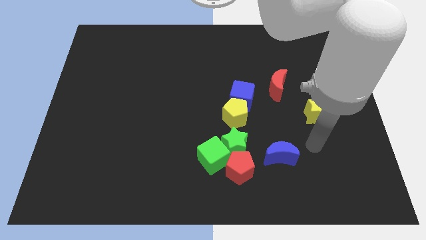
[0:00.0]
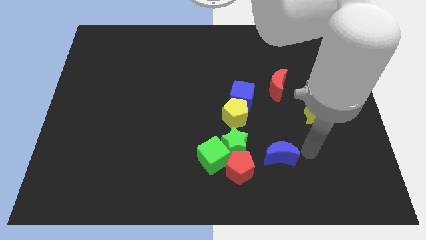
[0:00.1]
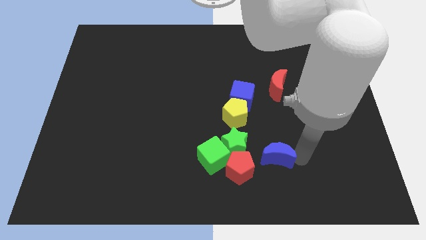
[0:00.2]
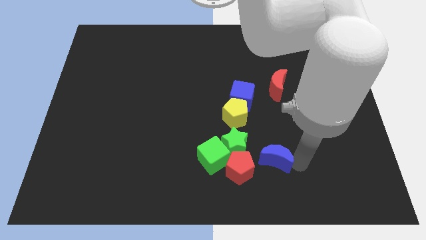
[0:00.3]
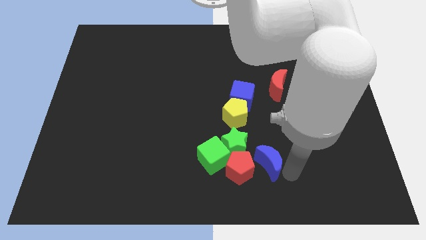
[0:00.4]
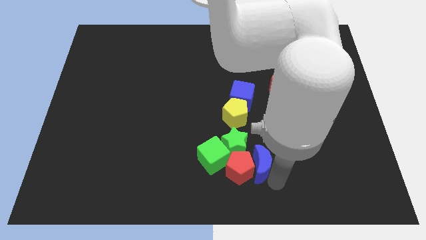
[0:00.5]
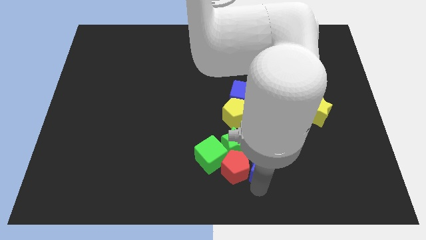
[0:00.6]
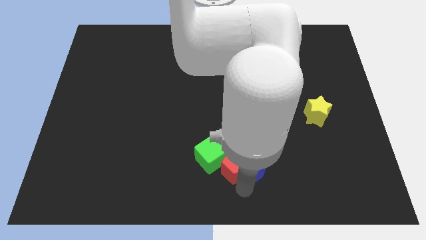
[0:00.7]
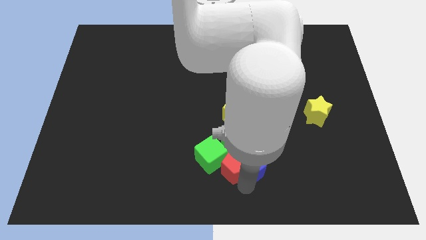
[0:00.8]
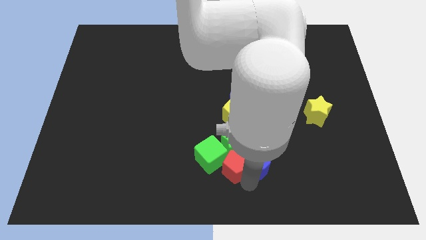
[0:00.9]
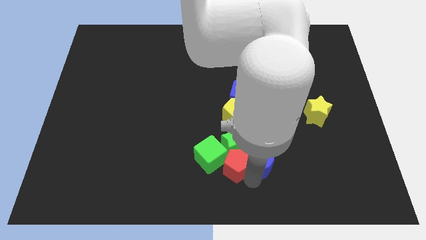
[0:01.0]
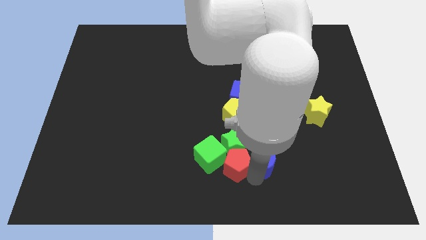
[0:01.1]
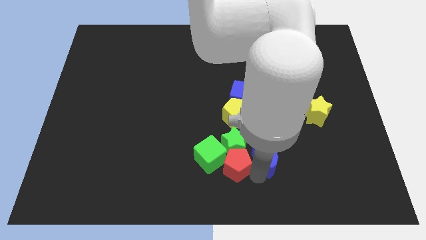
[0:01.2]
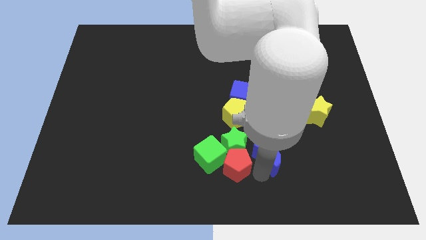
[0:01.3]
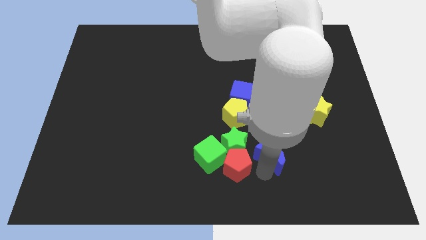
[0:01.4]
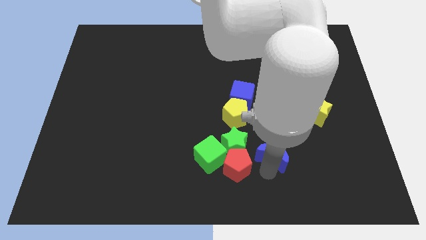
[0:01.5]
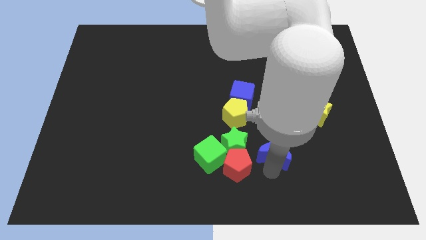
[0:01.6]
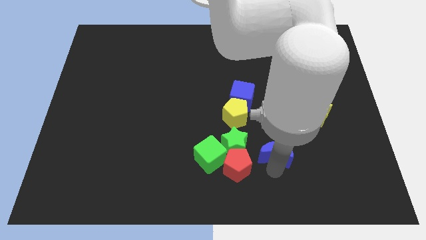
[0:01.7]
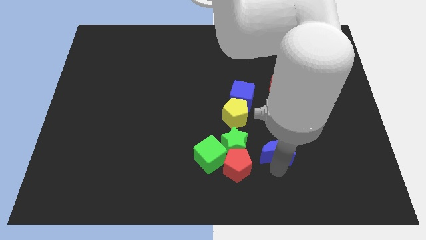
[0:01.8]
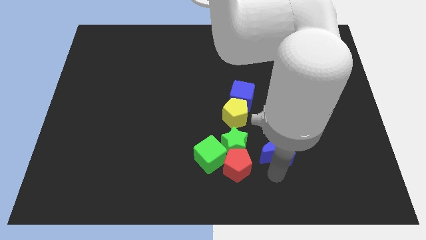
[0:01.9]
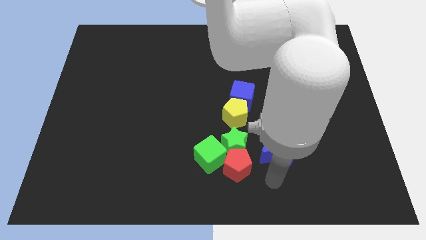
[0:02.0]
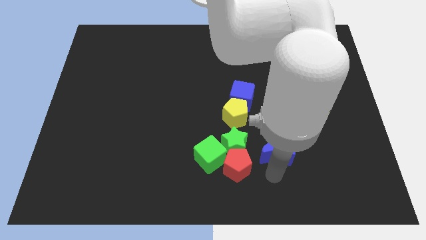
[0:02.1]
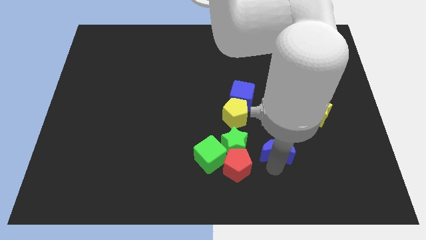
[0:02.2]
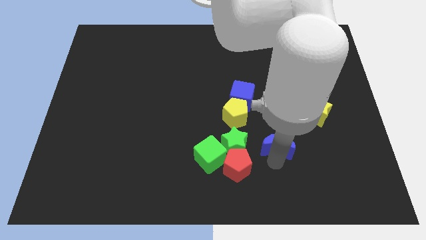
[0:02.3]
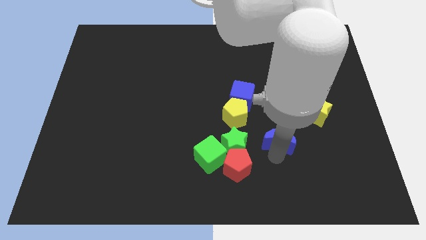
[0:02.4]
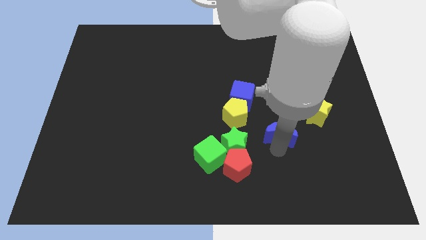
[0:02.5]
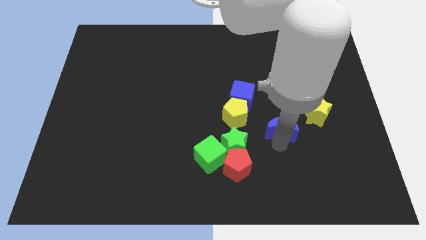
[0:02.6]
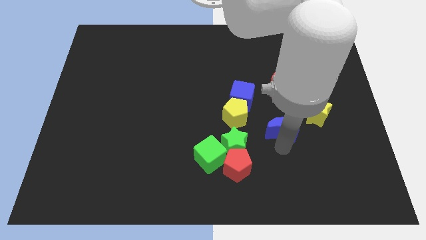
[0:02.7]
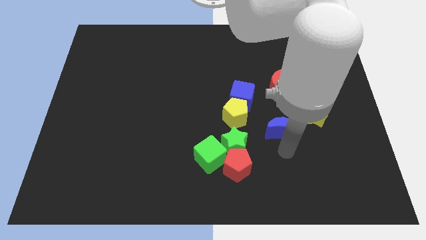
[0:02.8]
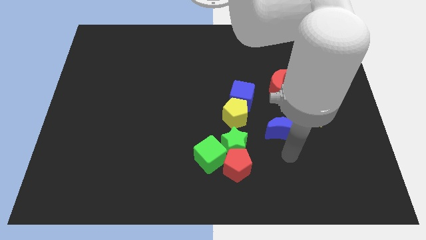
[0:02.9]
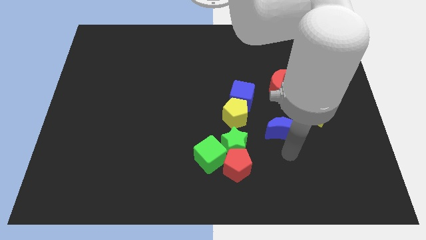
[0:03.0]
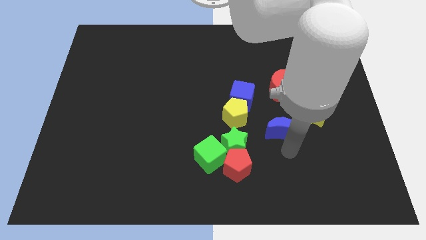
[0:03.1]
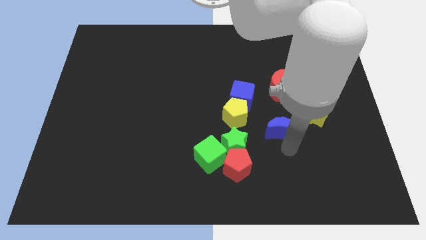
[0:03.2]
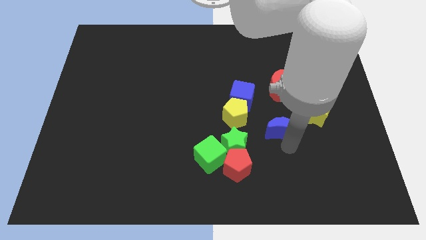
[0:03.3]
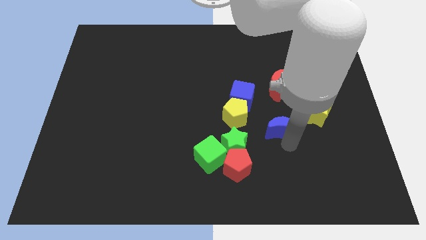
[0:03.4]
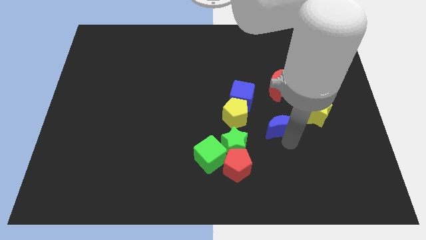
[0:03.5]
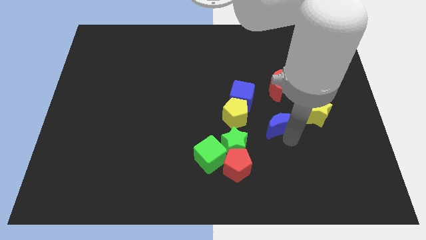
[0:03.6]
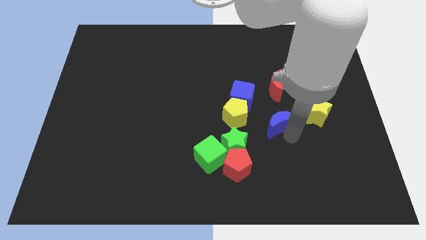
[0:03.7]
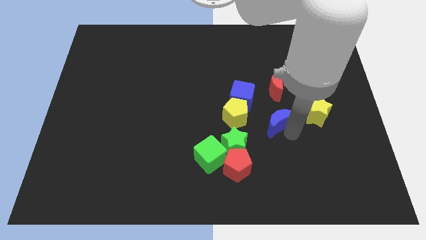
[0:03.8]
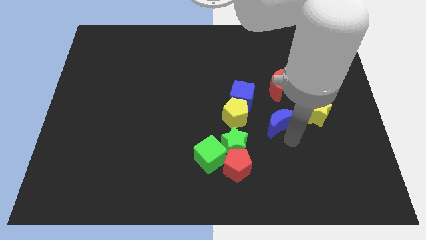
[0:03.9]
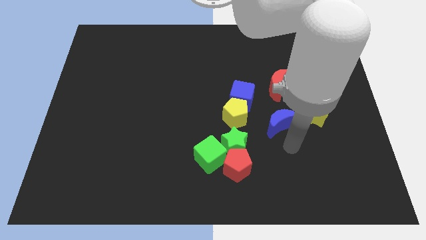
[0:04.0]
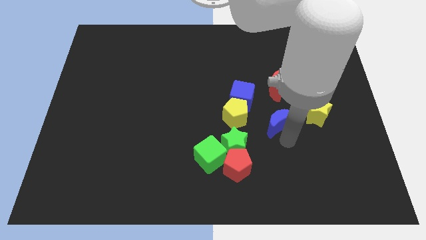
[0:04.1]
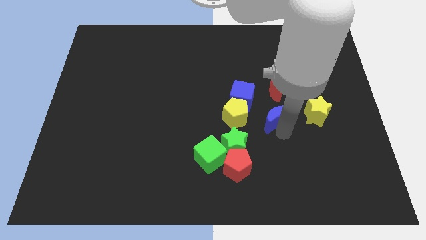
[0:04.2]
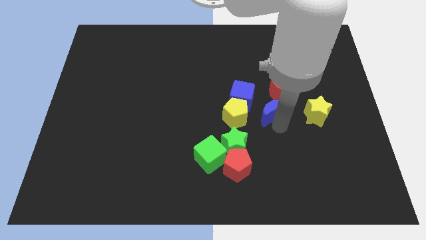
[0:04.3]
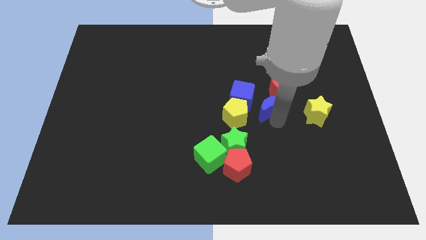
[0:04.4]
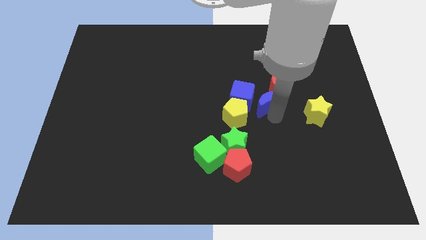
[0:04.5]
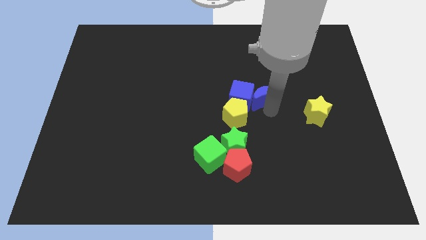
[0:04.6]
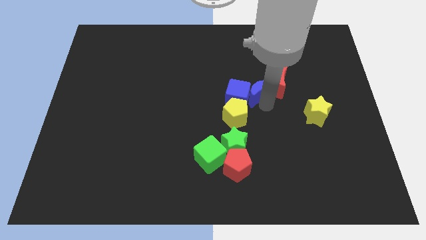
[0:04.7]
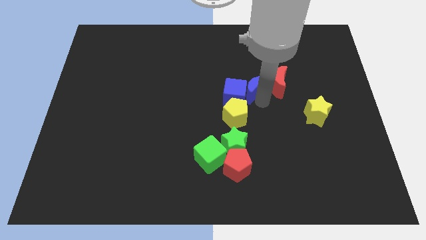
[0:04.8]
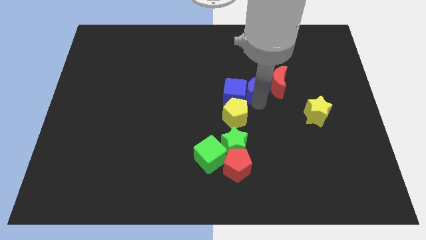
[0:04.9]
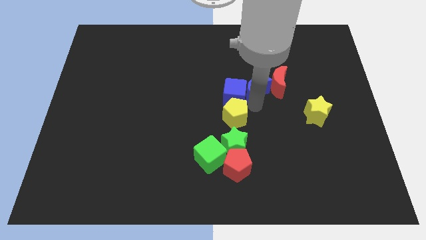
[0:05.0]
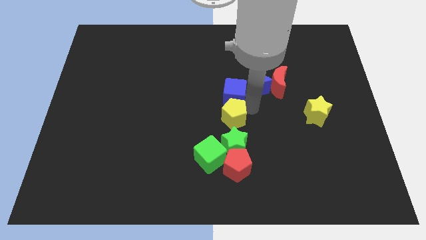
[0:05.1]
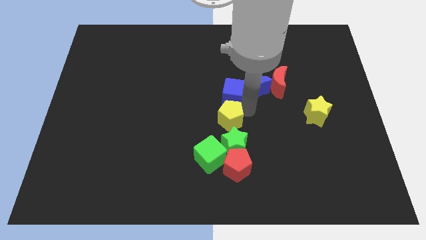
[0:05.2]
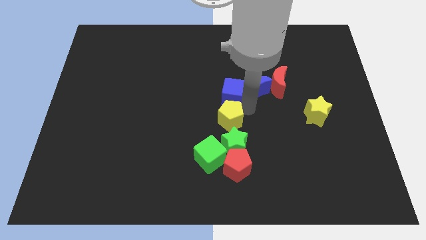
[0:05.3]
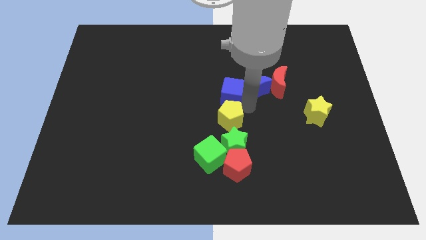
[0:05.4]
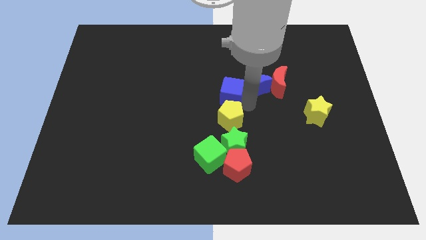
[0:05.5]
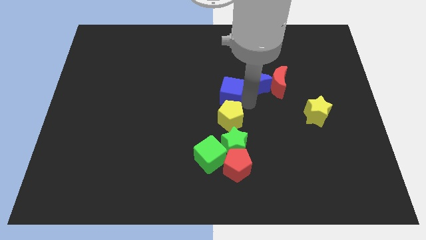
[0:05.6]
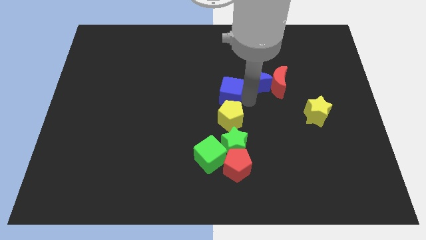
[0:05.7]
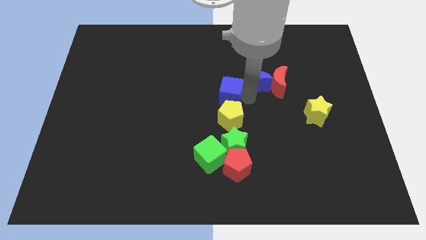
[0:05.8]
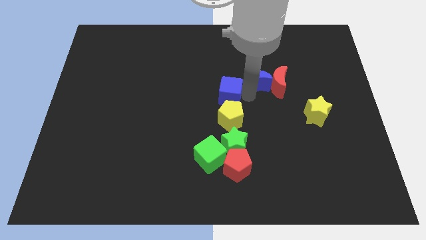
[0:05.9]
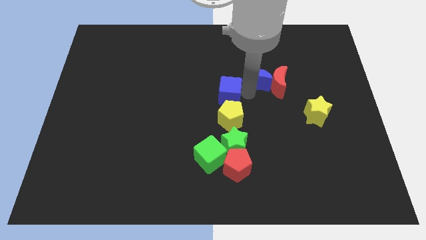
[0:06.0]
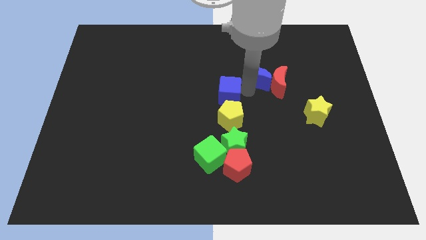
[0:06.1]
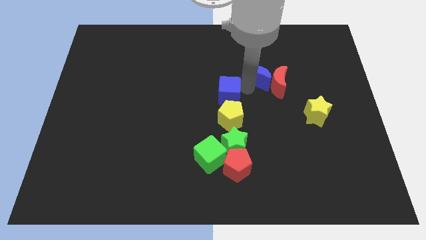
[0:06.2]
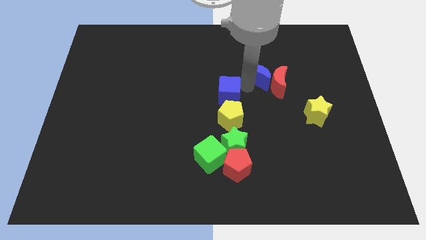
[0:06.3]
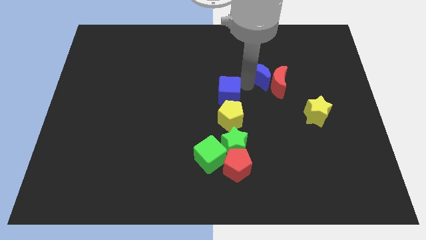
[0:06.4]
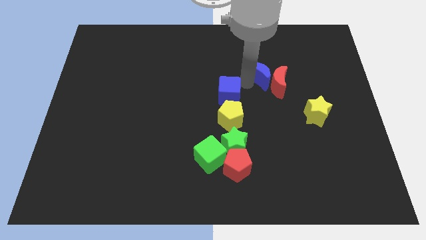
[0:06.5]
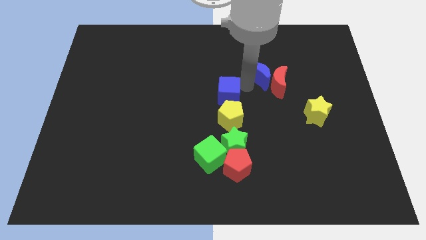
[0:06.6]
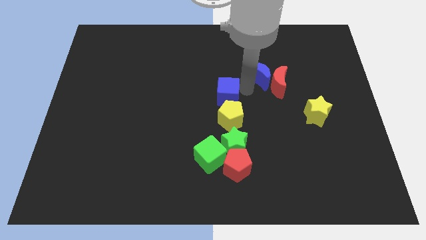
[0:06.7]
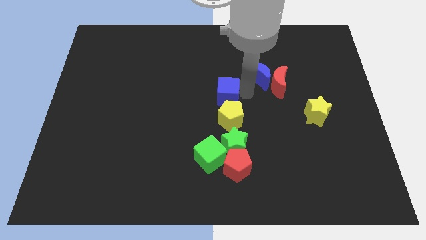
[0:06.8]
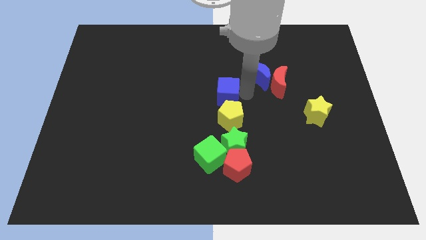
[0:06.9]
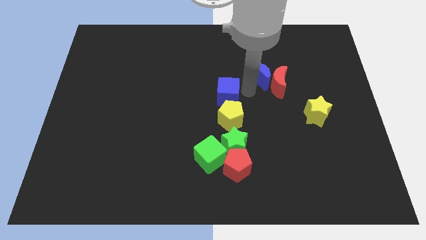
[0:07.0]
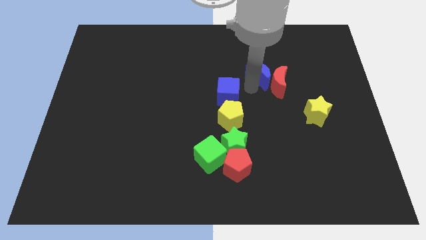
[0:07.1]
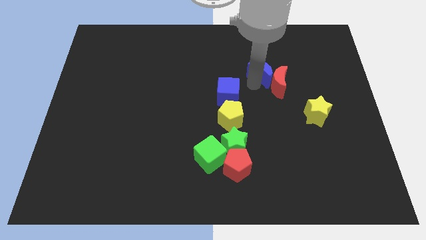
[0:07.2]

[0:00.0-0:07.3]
push the blue moon to the top side of the red moon

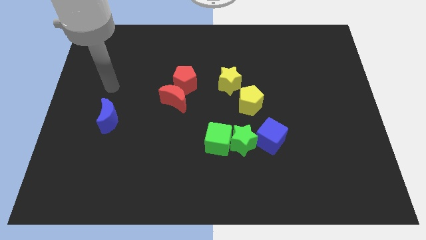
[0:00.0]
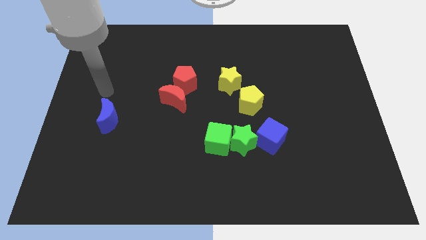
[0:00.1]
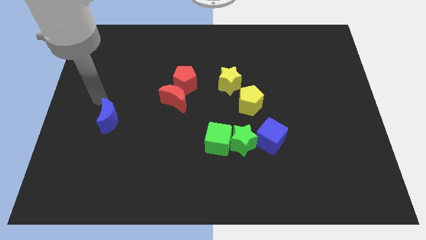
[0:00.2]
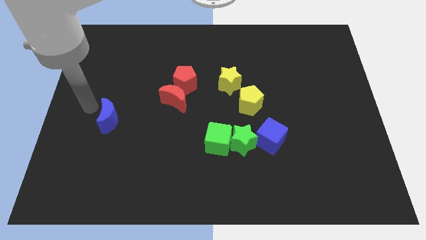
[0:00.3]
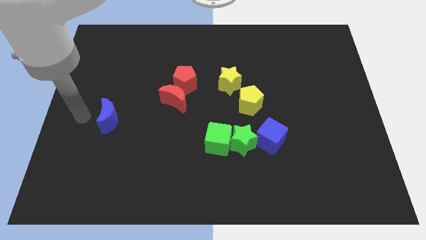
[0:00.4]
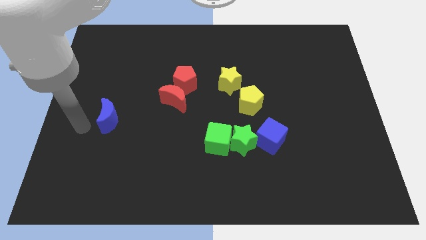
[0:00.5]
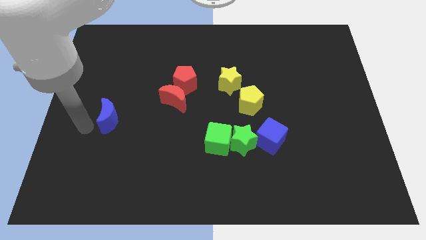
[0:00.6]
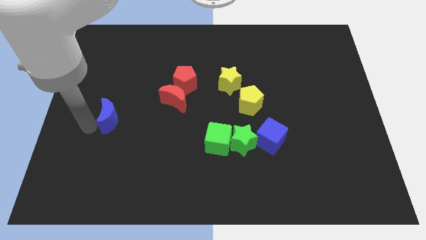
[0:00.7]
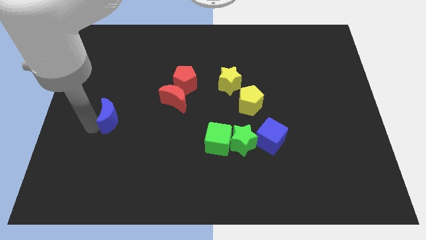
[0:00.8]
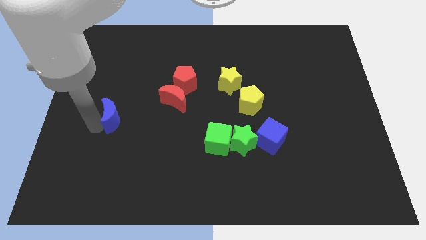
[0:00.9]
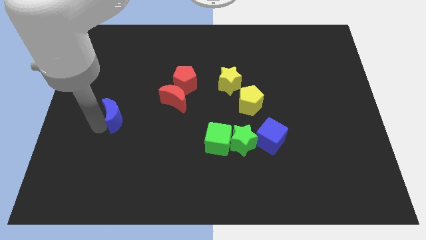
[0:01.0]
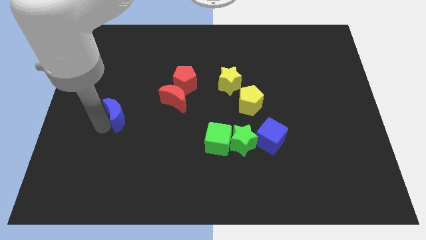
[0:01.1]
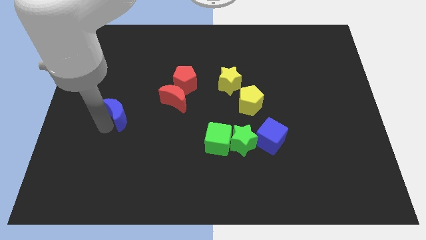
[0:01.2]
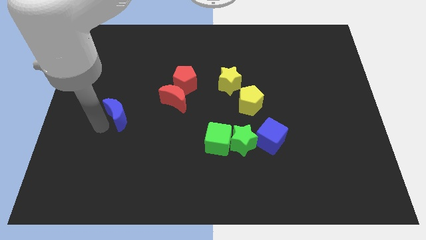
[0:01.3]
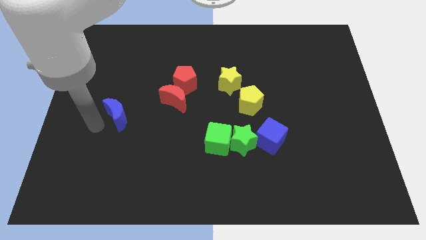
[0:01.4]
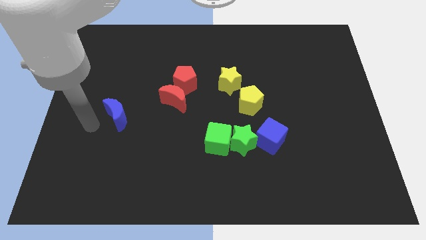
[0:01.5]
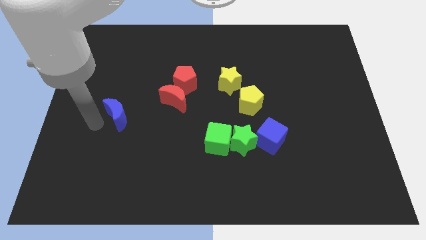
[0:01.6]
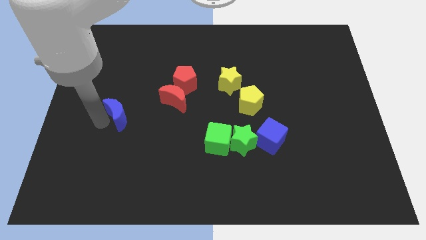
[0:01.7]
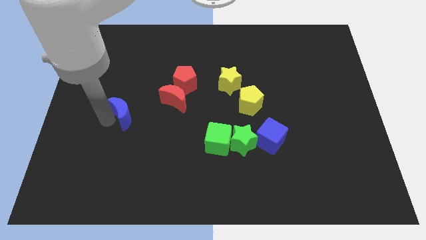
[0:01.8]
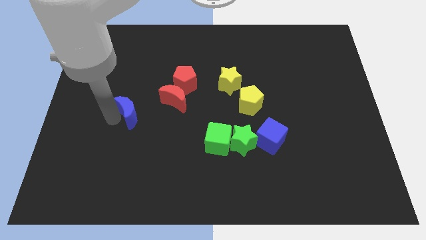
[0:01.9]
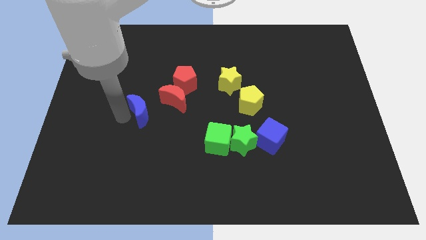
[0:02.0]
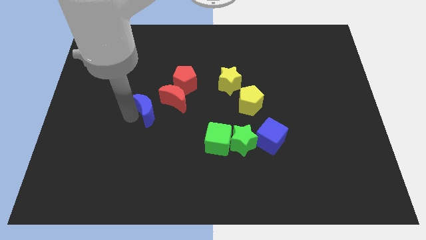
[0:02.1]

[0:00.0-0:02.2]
move the blue moon to the bottom left side of the red pentagon
